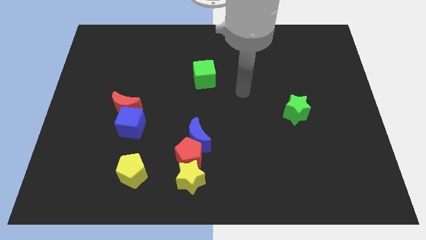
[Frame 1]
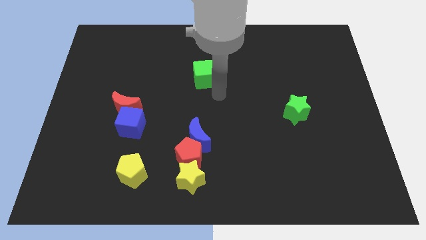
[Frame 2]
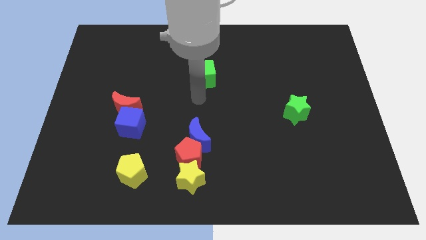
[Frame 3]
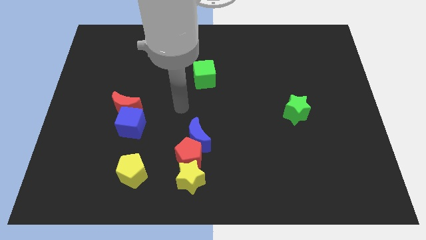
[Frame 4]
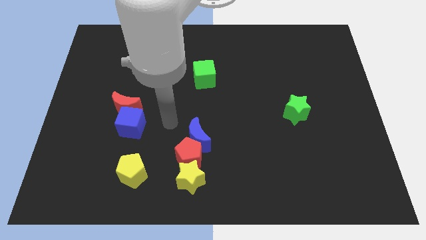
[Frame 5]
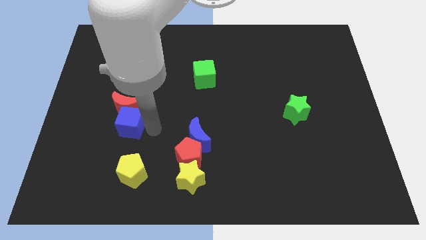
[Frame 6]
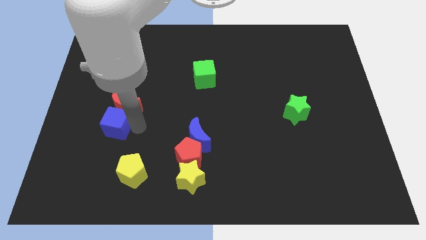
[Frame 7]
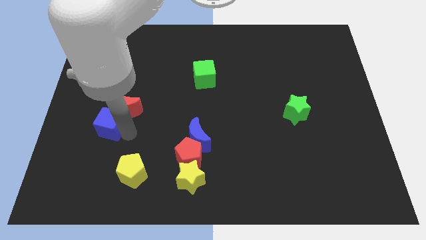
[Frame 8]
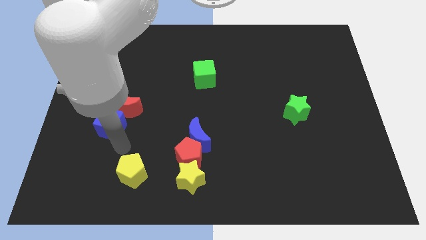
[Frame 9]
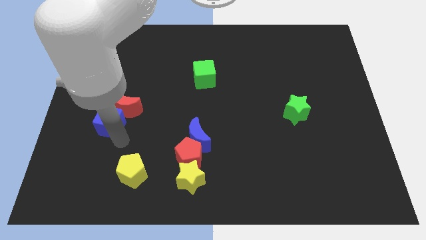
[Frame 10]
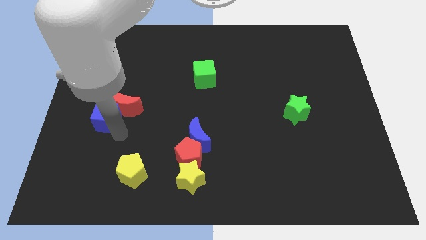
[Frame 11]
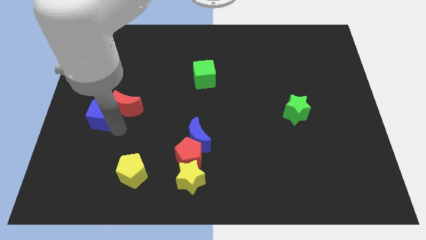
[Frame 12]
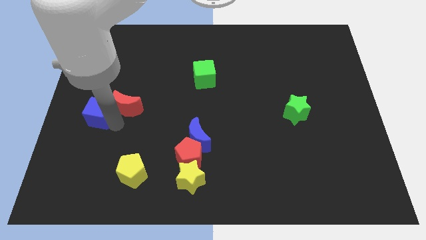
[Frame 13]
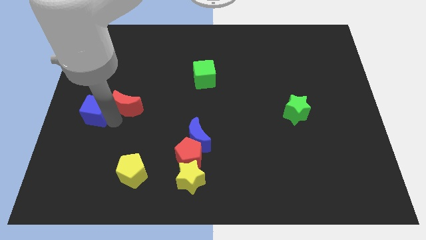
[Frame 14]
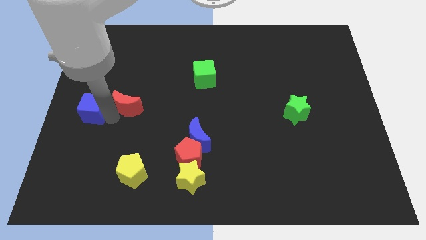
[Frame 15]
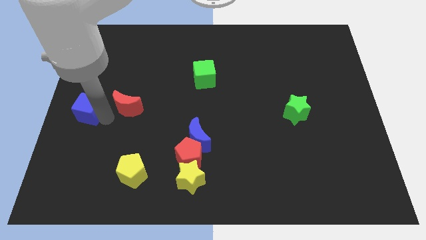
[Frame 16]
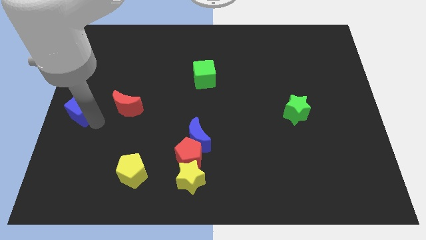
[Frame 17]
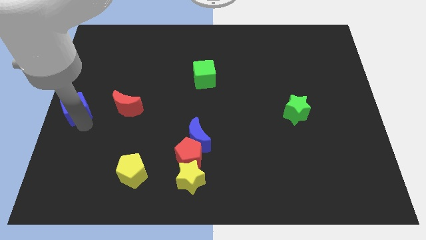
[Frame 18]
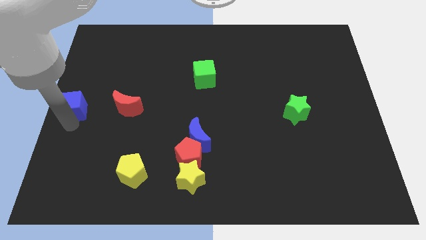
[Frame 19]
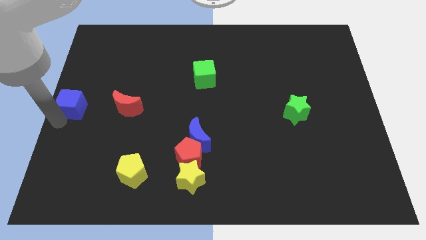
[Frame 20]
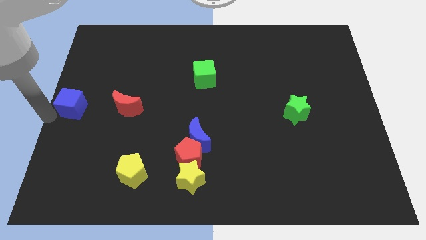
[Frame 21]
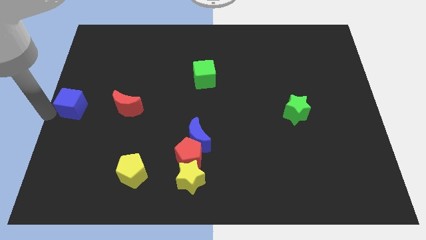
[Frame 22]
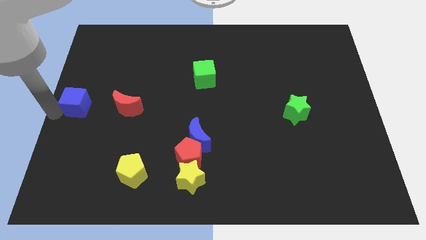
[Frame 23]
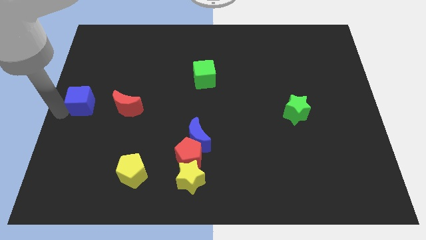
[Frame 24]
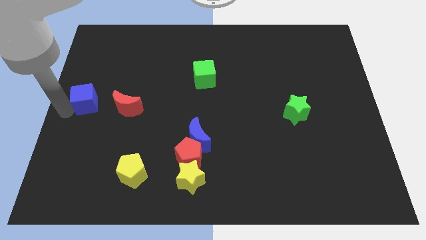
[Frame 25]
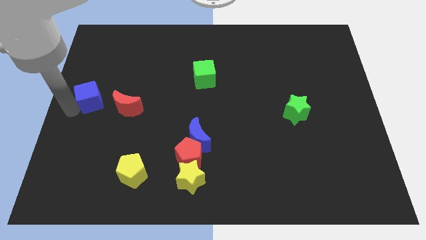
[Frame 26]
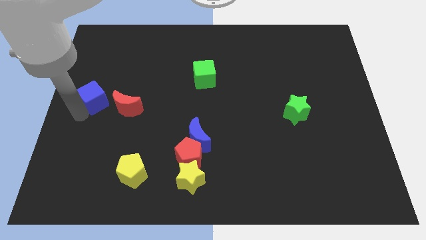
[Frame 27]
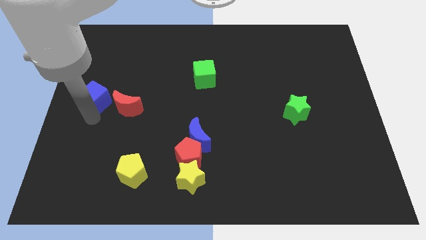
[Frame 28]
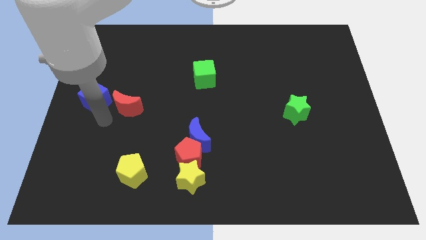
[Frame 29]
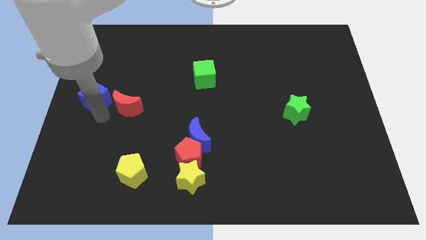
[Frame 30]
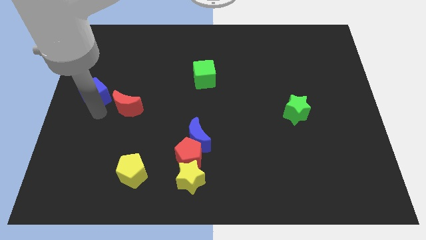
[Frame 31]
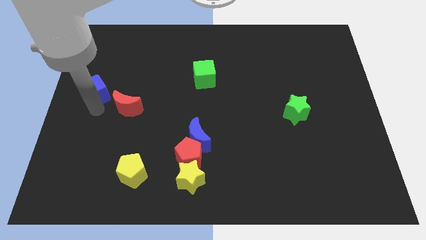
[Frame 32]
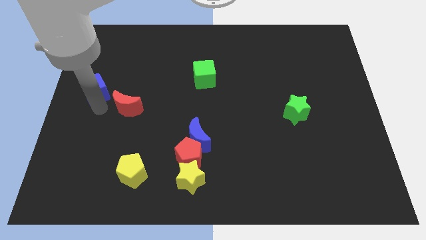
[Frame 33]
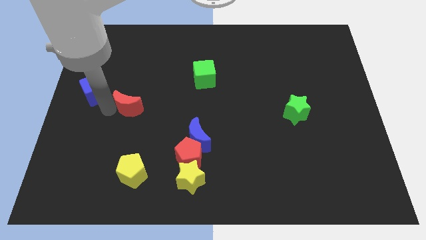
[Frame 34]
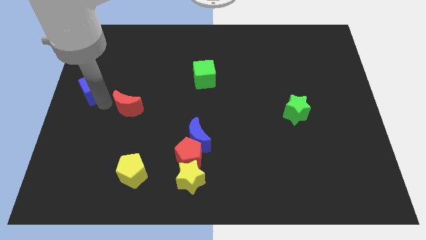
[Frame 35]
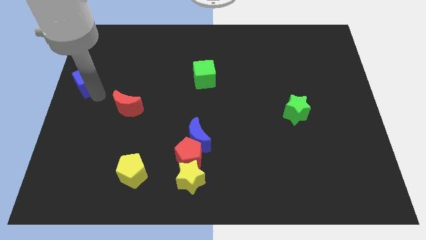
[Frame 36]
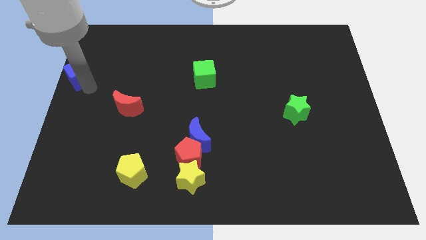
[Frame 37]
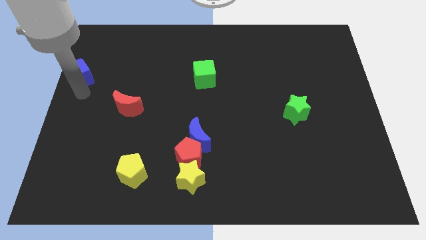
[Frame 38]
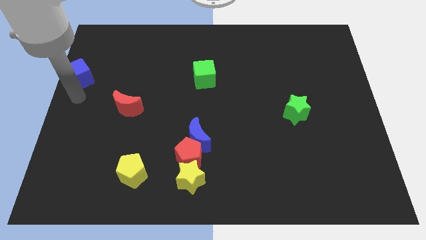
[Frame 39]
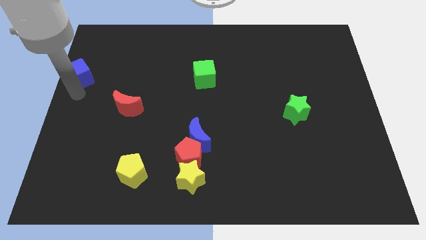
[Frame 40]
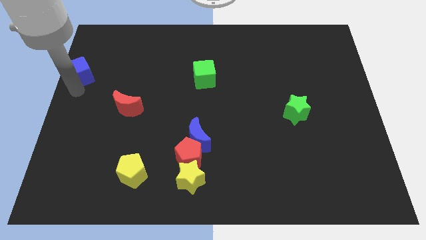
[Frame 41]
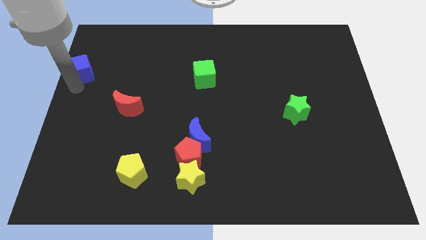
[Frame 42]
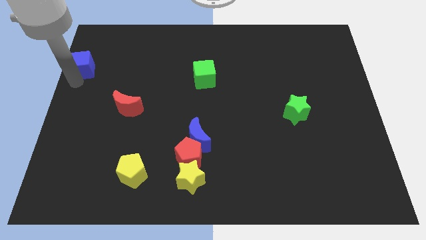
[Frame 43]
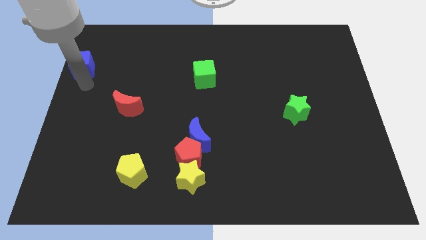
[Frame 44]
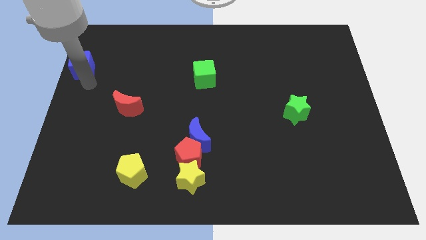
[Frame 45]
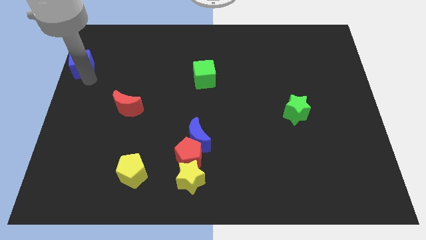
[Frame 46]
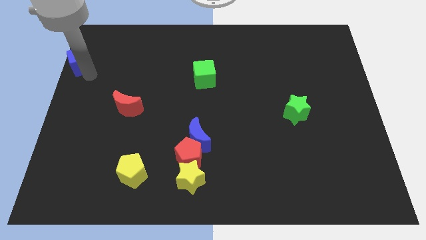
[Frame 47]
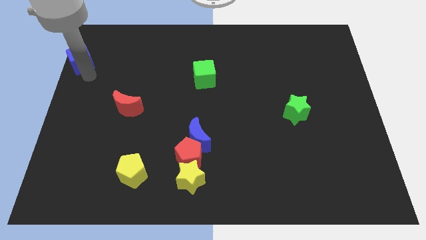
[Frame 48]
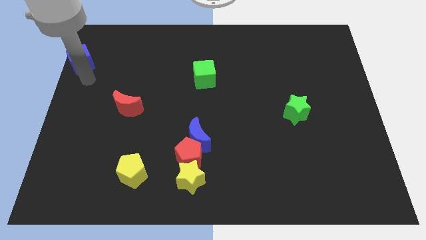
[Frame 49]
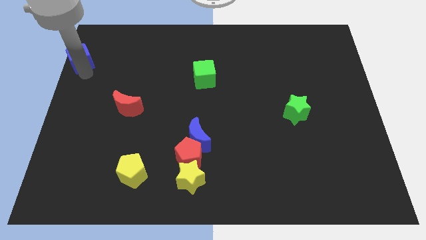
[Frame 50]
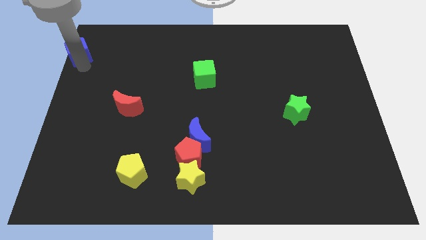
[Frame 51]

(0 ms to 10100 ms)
push the blue cube to the top left

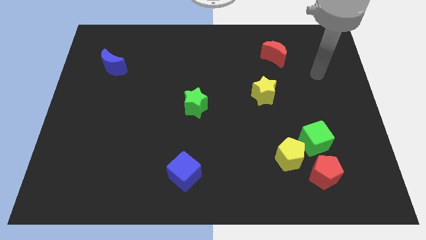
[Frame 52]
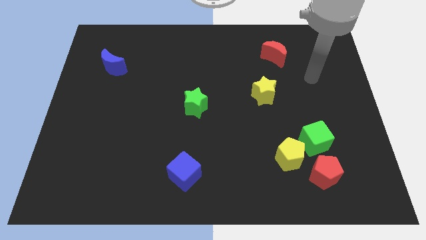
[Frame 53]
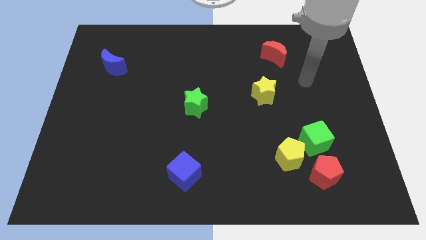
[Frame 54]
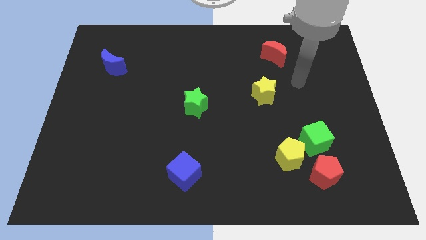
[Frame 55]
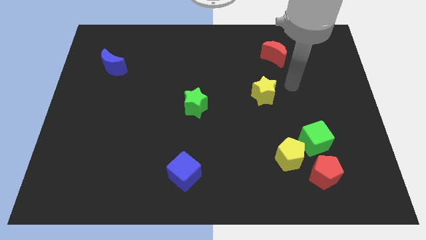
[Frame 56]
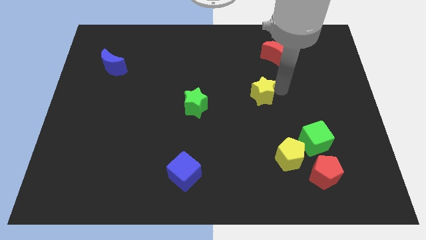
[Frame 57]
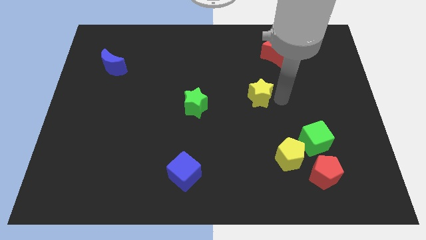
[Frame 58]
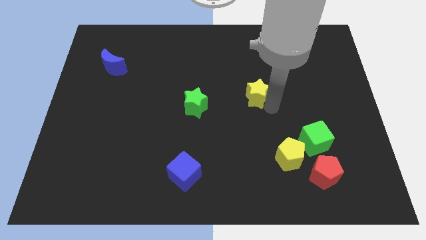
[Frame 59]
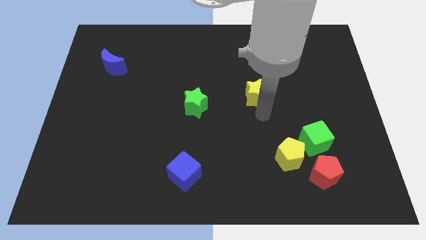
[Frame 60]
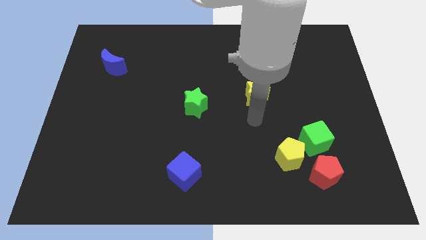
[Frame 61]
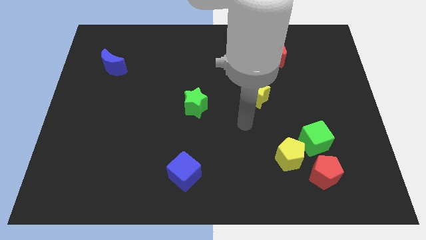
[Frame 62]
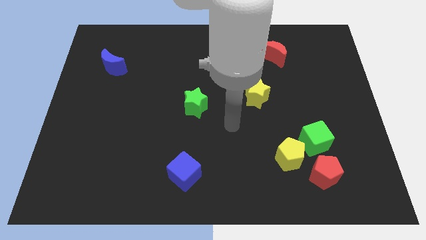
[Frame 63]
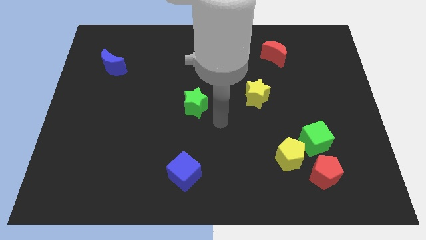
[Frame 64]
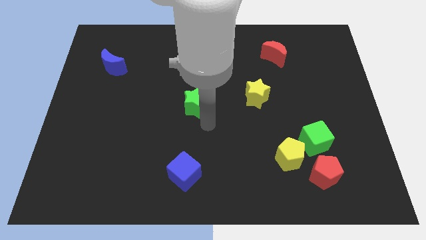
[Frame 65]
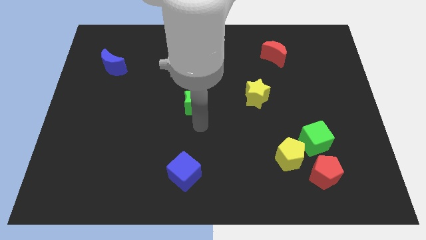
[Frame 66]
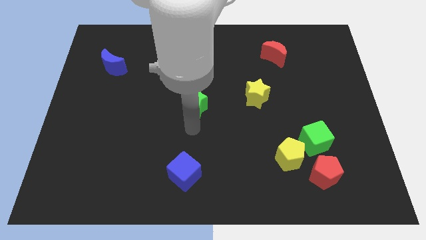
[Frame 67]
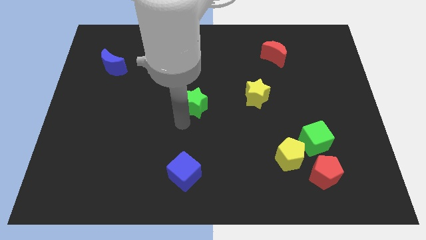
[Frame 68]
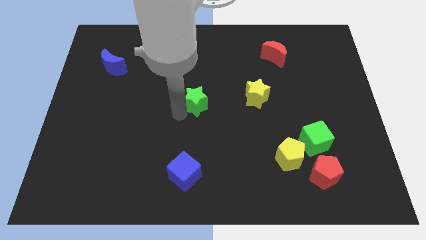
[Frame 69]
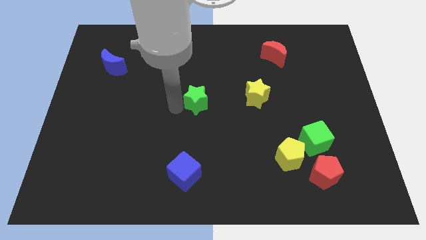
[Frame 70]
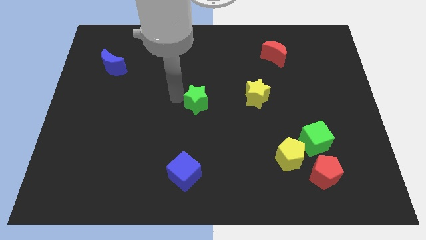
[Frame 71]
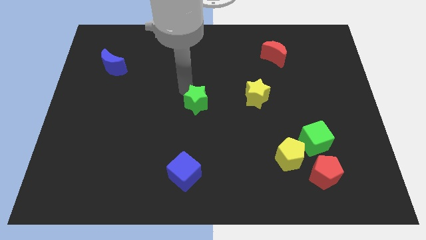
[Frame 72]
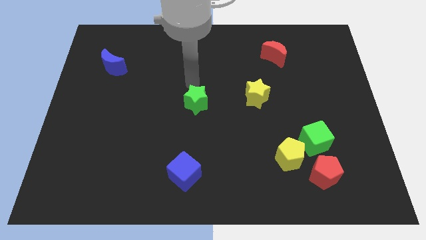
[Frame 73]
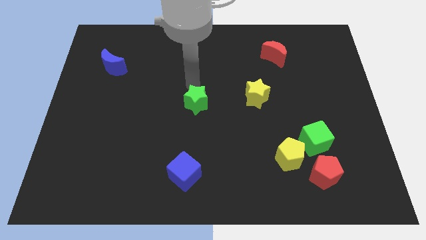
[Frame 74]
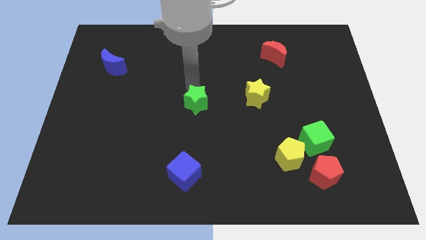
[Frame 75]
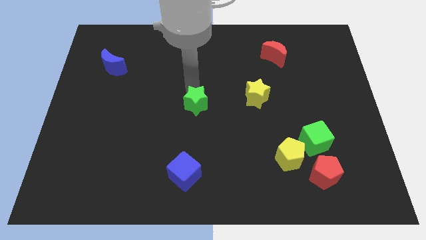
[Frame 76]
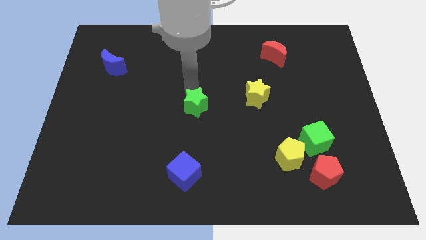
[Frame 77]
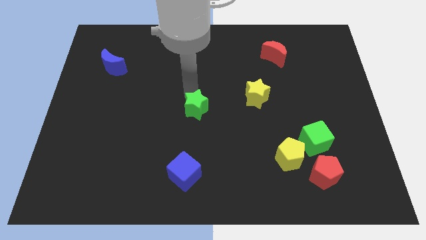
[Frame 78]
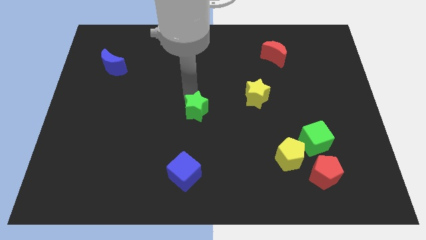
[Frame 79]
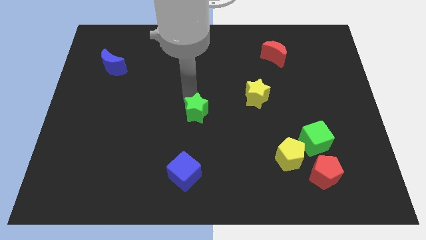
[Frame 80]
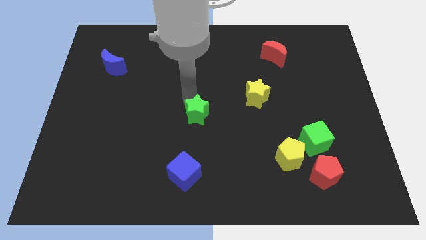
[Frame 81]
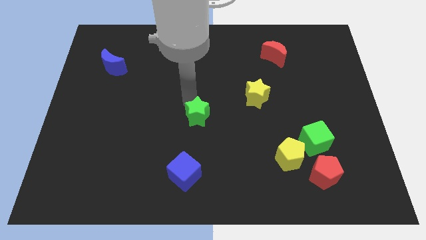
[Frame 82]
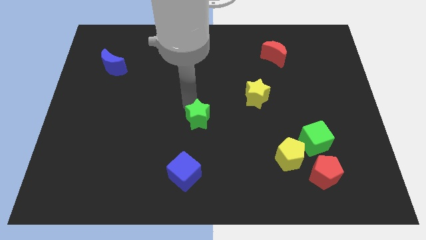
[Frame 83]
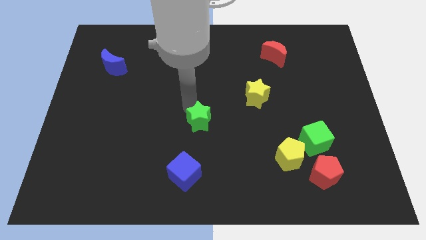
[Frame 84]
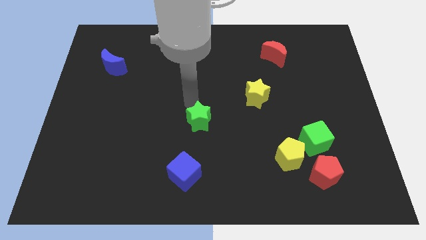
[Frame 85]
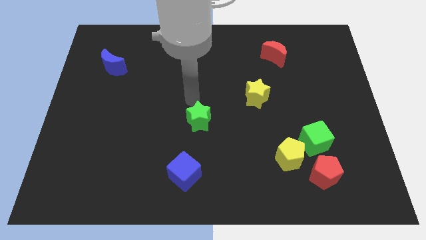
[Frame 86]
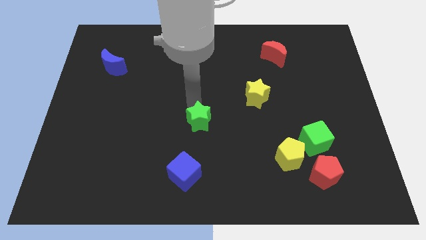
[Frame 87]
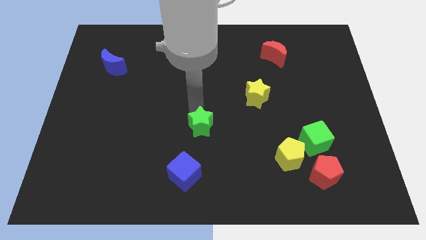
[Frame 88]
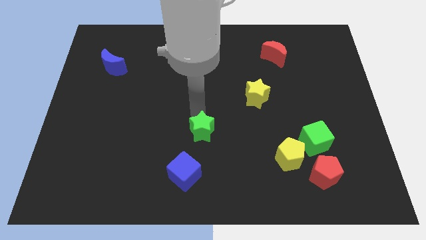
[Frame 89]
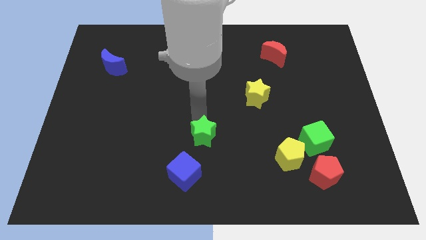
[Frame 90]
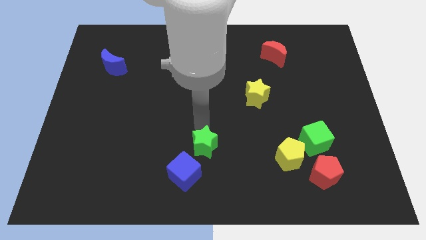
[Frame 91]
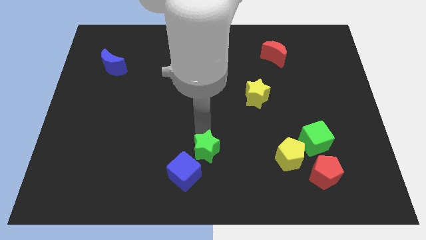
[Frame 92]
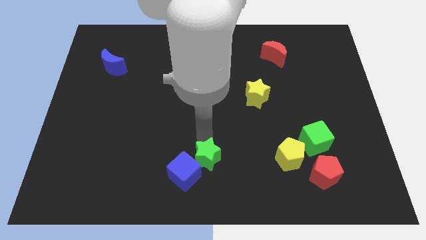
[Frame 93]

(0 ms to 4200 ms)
slide the green star to the bottom
